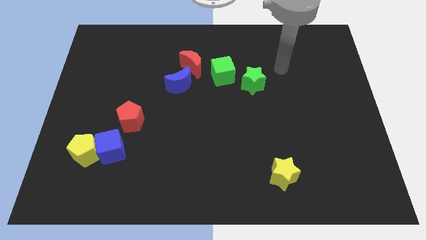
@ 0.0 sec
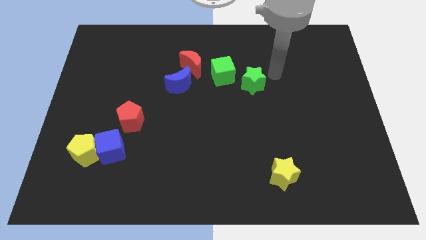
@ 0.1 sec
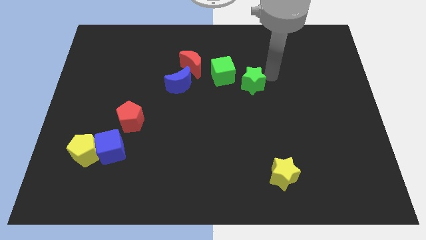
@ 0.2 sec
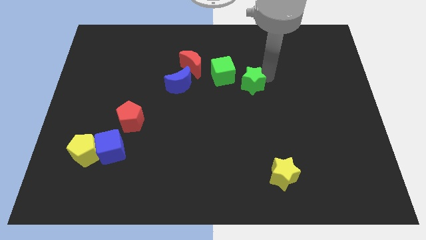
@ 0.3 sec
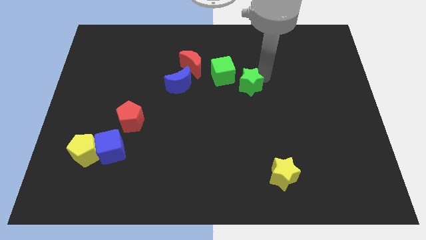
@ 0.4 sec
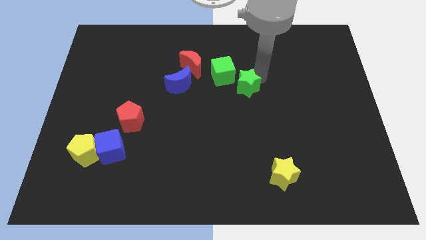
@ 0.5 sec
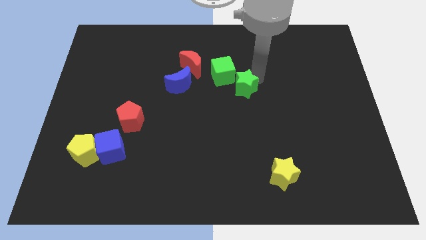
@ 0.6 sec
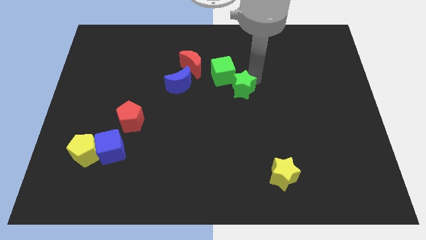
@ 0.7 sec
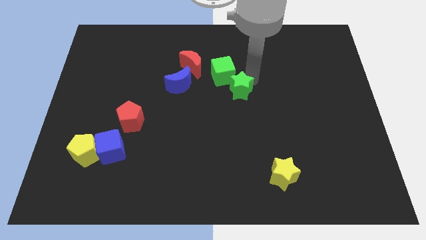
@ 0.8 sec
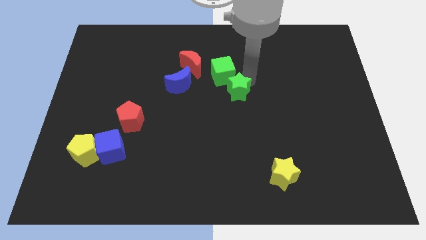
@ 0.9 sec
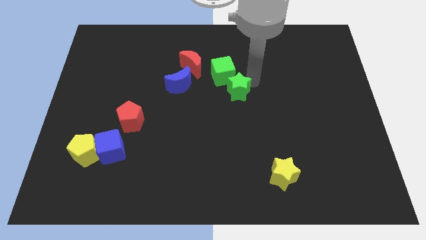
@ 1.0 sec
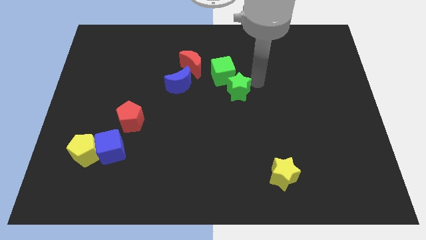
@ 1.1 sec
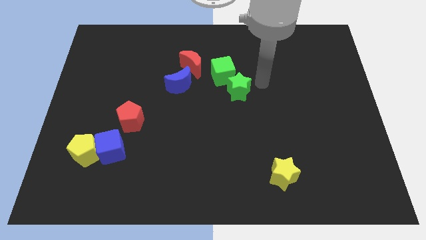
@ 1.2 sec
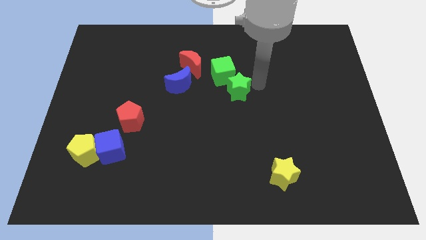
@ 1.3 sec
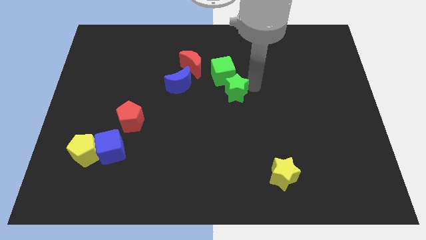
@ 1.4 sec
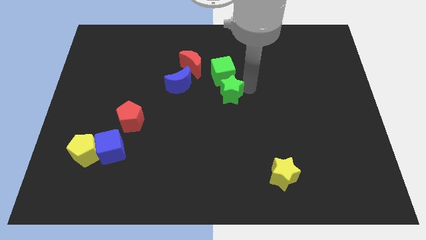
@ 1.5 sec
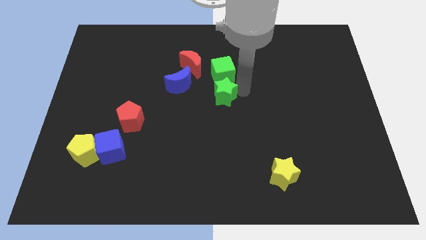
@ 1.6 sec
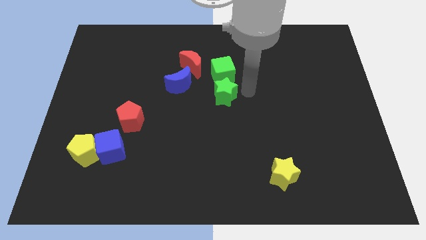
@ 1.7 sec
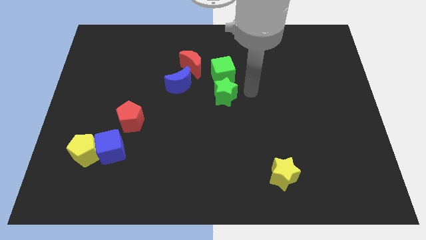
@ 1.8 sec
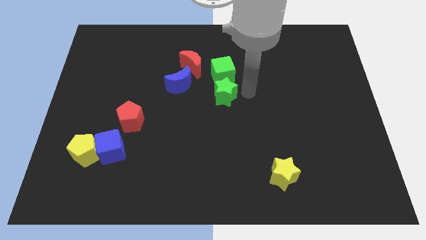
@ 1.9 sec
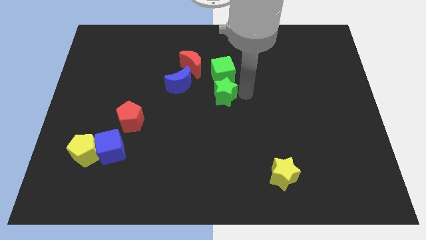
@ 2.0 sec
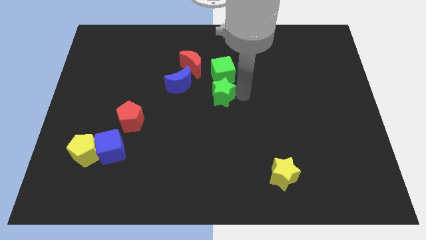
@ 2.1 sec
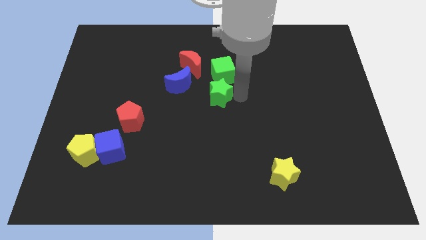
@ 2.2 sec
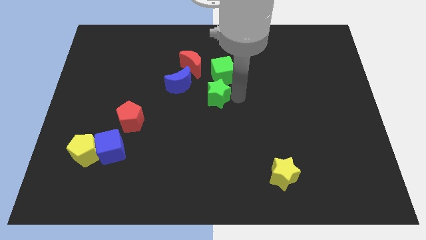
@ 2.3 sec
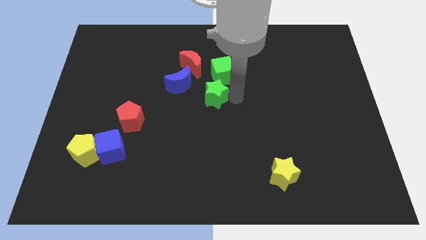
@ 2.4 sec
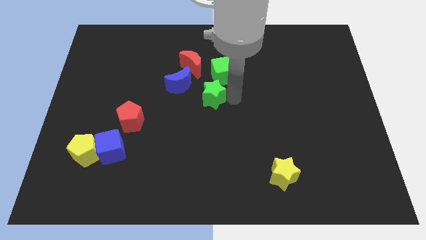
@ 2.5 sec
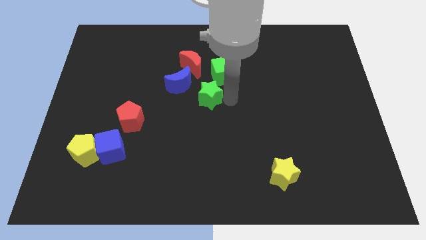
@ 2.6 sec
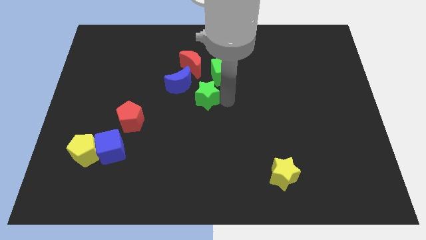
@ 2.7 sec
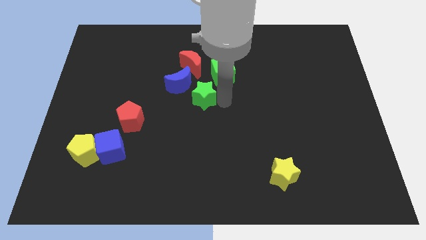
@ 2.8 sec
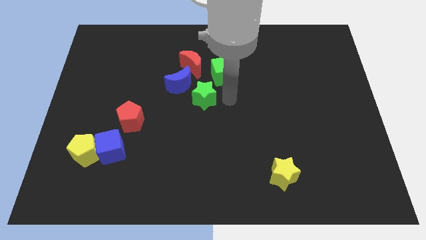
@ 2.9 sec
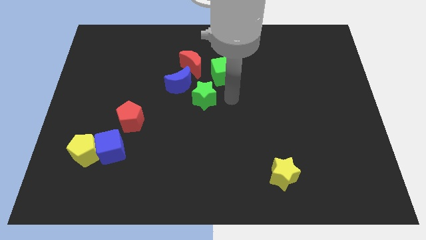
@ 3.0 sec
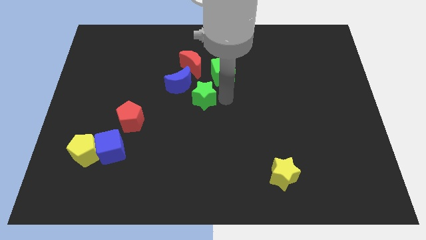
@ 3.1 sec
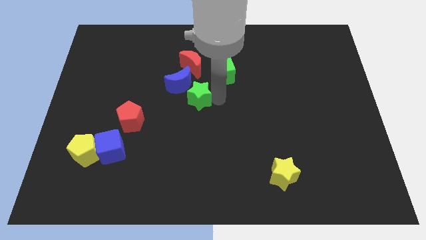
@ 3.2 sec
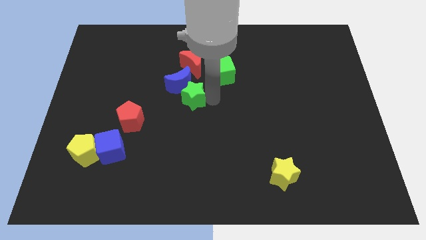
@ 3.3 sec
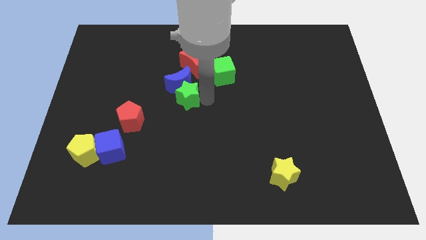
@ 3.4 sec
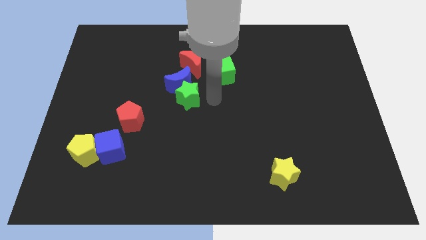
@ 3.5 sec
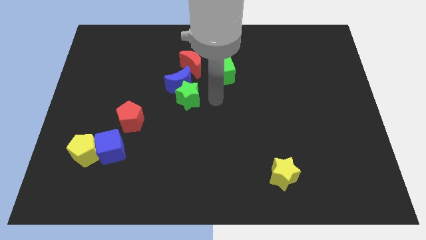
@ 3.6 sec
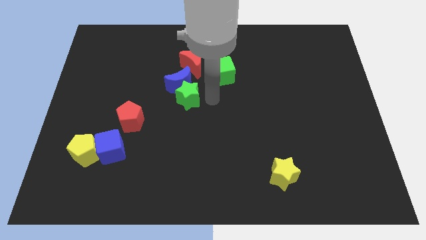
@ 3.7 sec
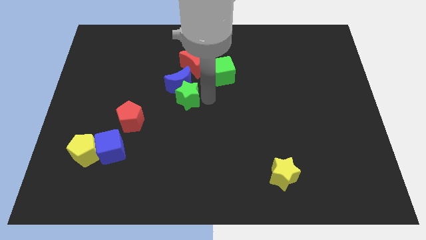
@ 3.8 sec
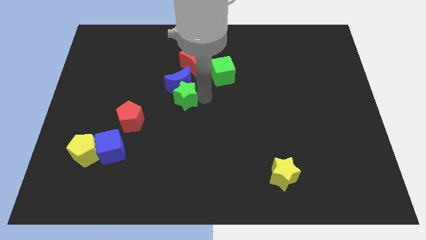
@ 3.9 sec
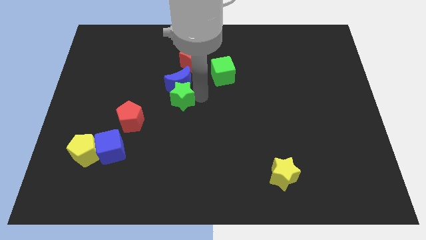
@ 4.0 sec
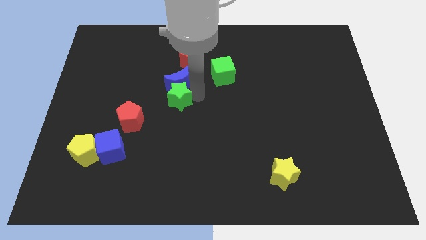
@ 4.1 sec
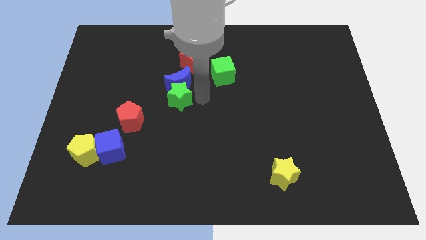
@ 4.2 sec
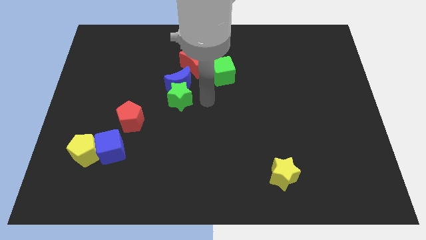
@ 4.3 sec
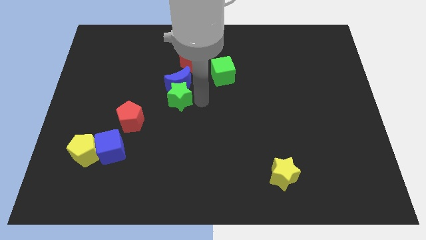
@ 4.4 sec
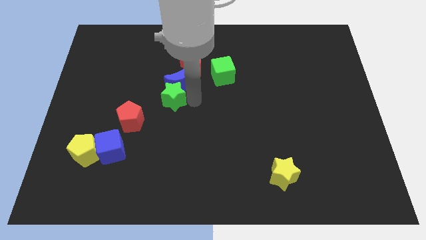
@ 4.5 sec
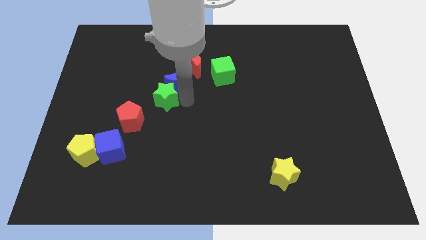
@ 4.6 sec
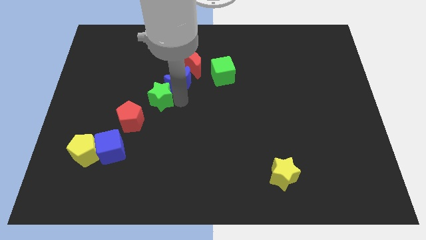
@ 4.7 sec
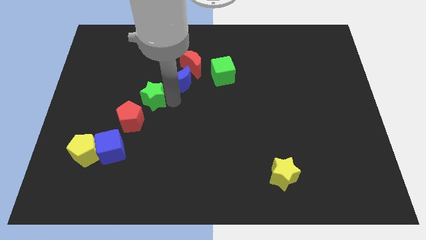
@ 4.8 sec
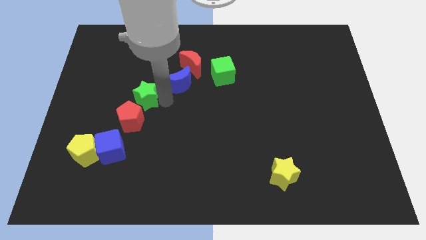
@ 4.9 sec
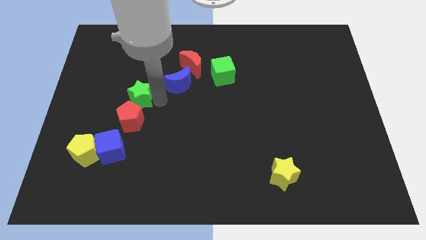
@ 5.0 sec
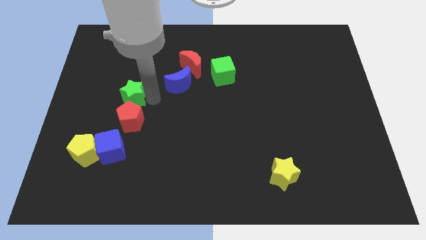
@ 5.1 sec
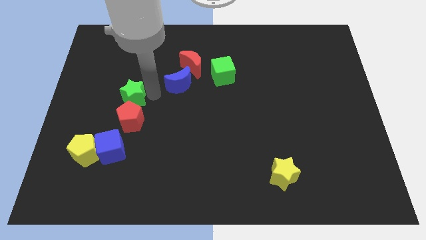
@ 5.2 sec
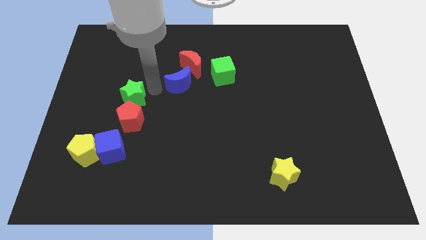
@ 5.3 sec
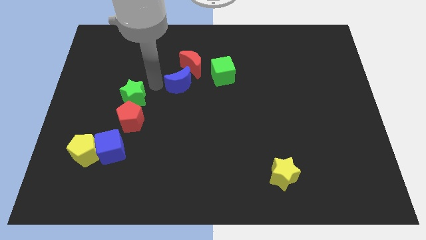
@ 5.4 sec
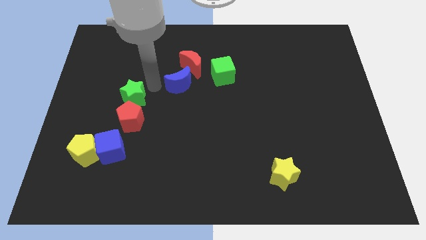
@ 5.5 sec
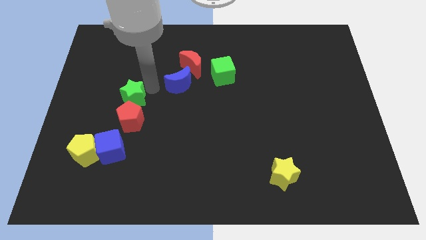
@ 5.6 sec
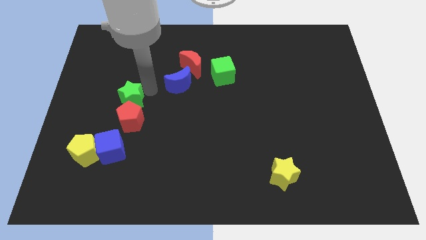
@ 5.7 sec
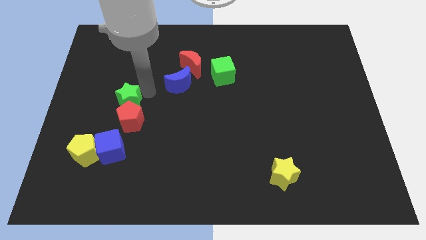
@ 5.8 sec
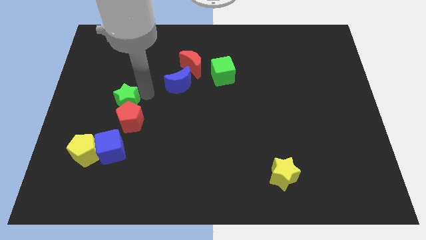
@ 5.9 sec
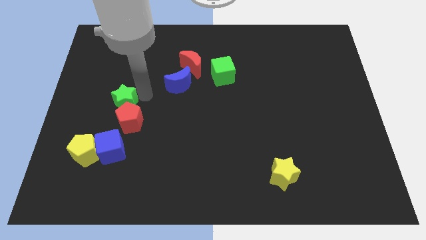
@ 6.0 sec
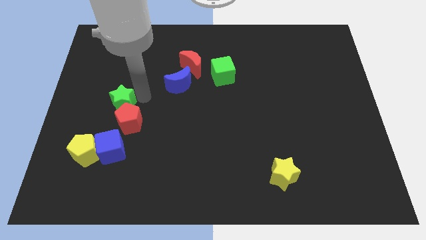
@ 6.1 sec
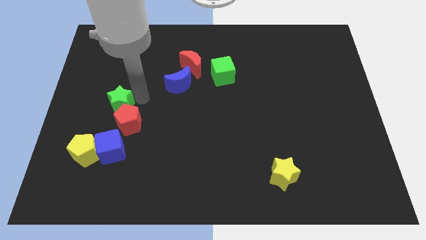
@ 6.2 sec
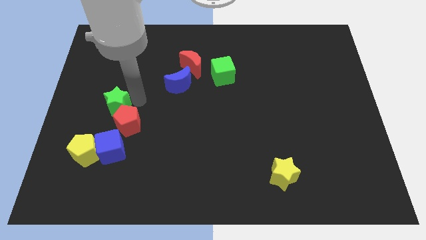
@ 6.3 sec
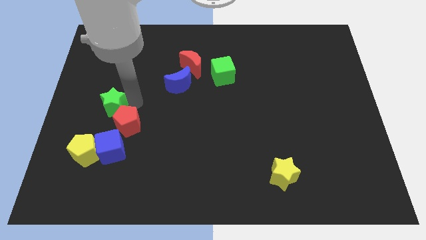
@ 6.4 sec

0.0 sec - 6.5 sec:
put the green star left of the red pentagon
